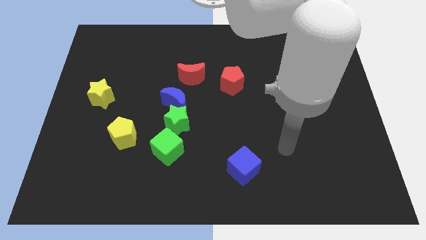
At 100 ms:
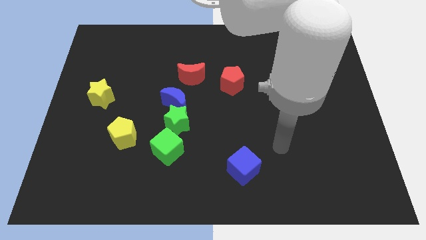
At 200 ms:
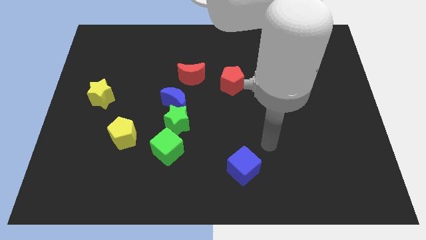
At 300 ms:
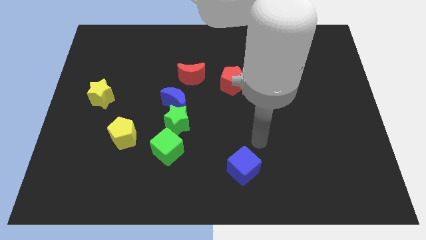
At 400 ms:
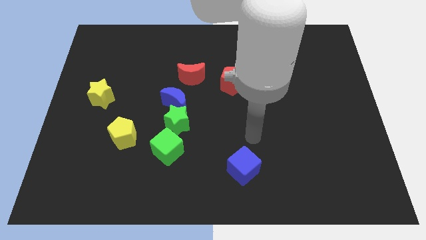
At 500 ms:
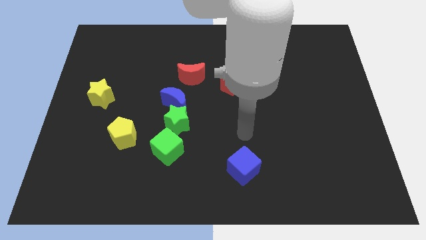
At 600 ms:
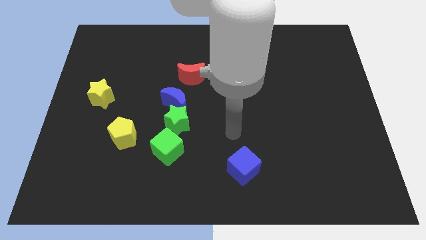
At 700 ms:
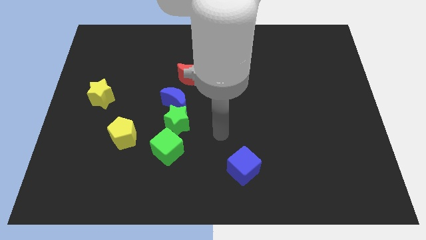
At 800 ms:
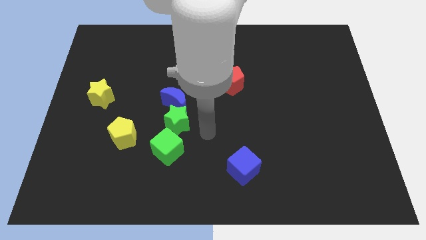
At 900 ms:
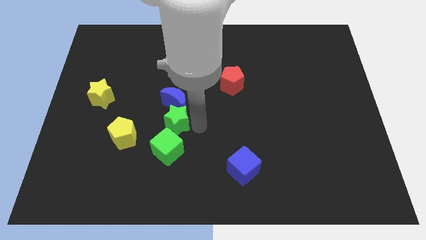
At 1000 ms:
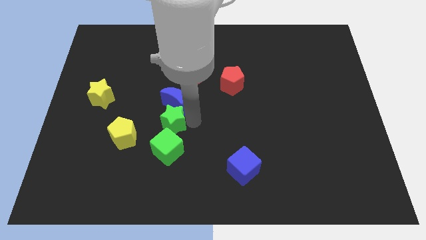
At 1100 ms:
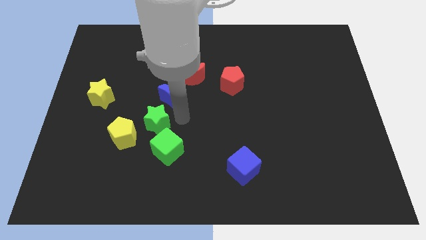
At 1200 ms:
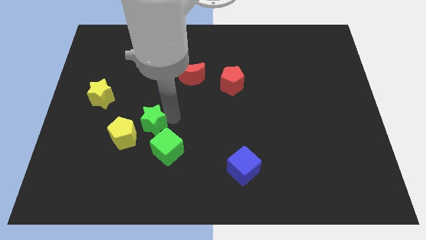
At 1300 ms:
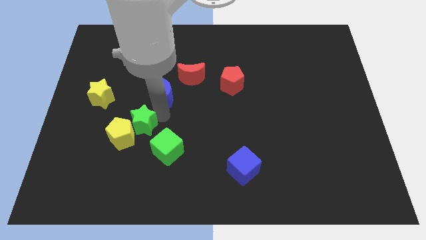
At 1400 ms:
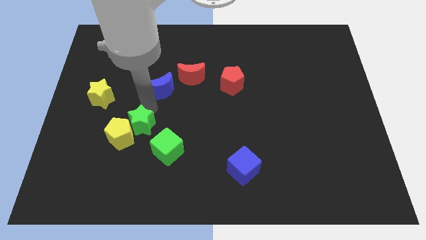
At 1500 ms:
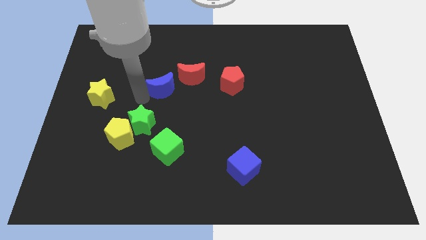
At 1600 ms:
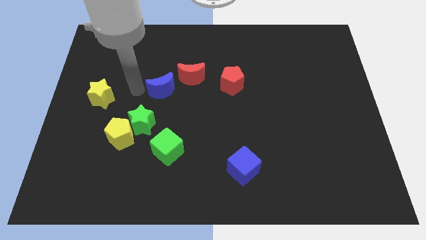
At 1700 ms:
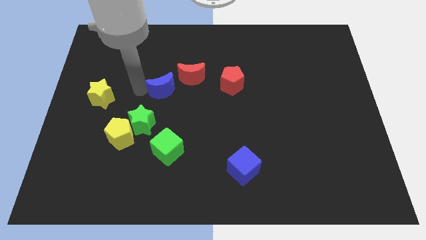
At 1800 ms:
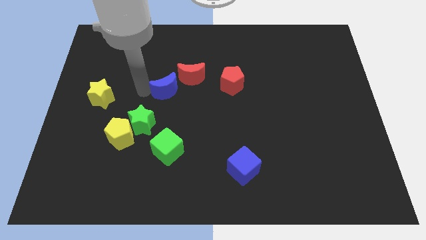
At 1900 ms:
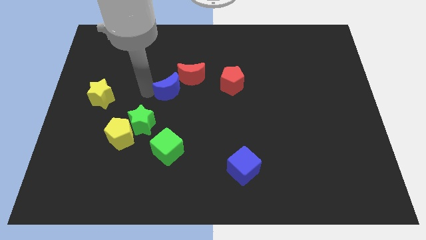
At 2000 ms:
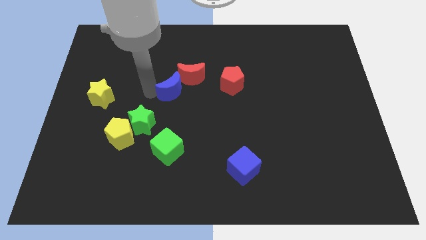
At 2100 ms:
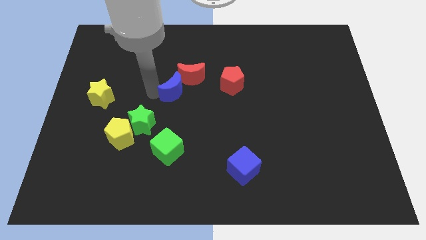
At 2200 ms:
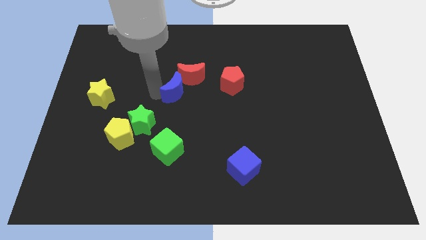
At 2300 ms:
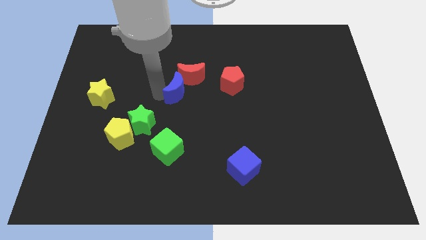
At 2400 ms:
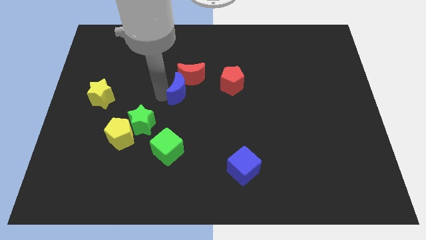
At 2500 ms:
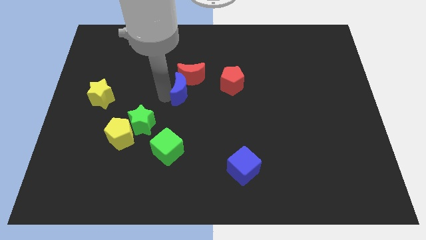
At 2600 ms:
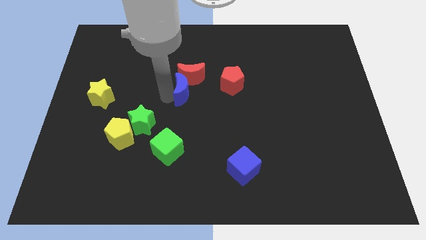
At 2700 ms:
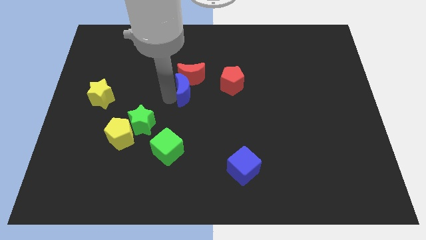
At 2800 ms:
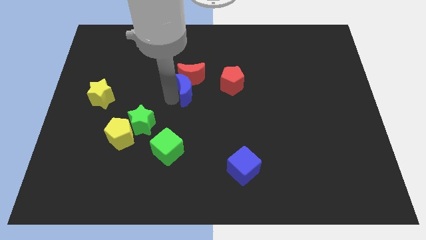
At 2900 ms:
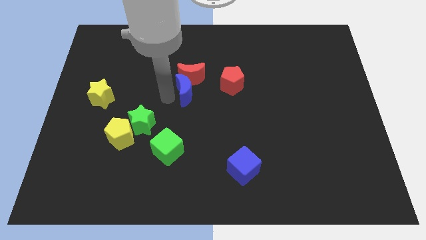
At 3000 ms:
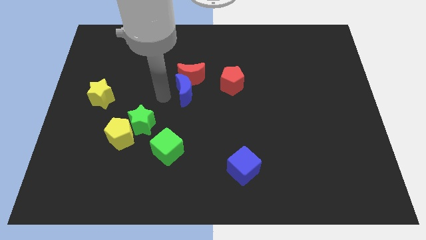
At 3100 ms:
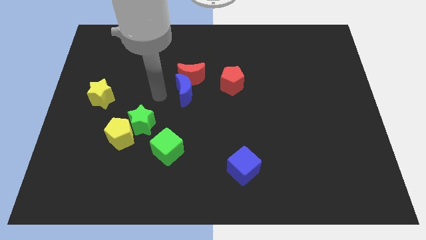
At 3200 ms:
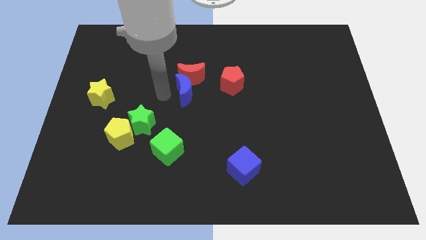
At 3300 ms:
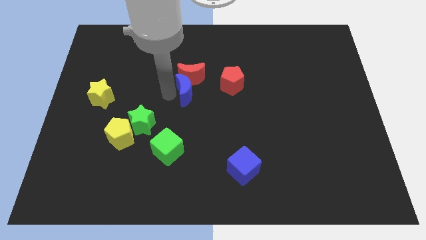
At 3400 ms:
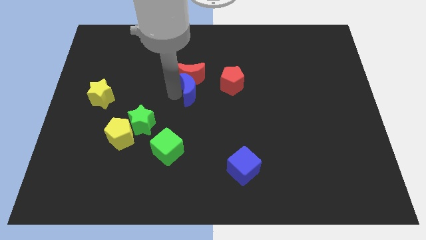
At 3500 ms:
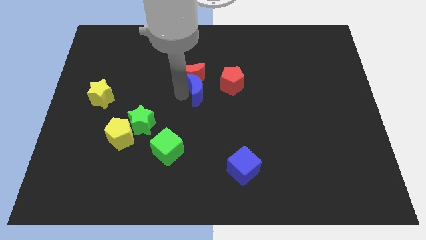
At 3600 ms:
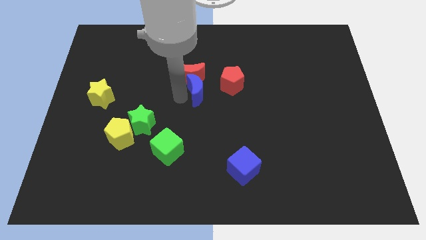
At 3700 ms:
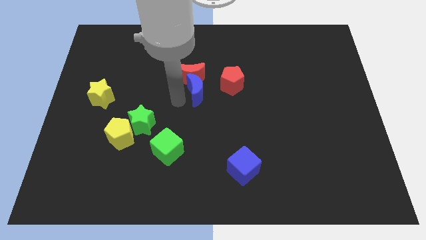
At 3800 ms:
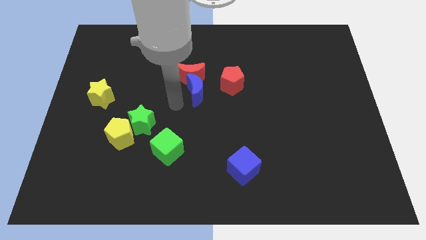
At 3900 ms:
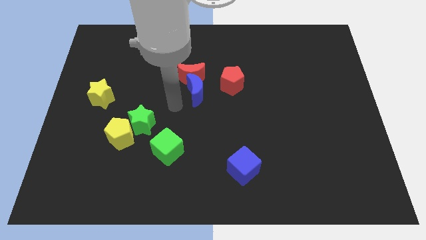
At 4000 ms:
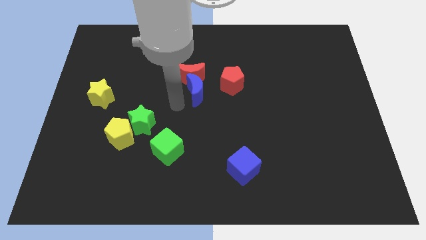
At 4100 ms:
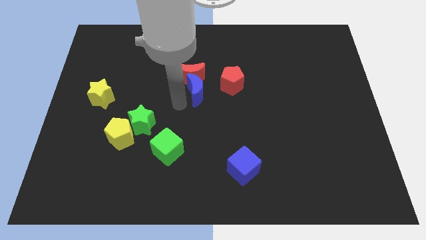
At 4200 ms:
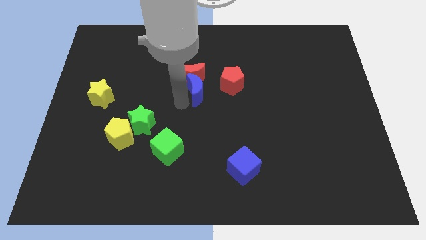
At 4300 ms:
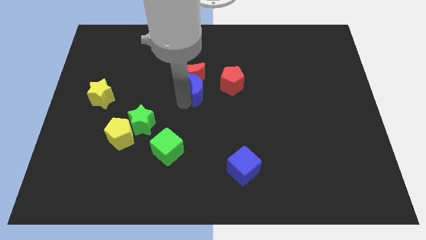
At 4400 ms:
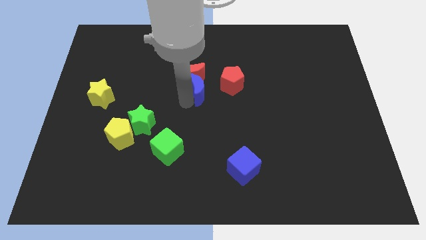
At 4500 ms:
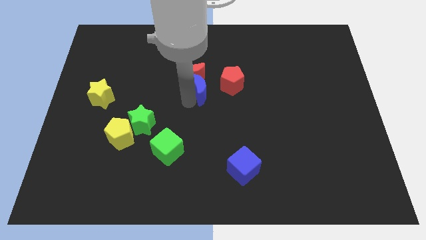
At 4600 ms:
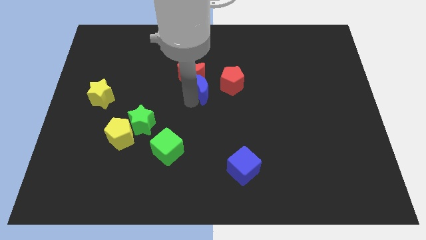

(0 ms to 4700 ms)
slightly push the blue moon up and then to the right

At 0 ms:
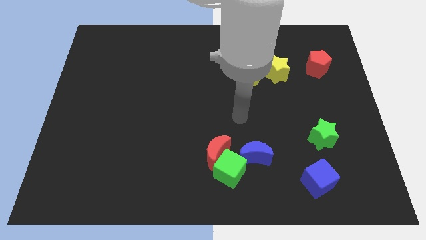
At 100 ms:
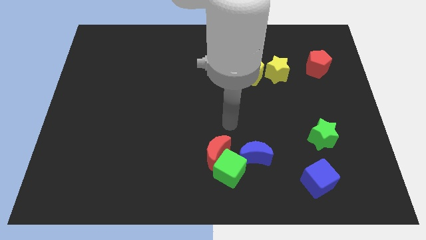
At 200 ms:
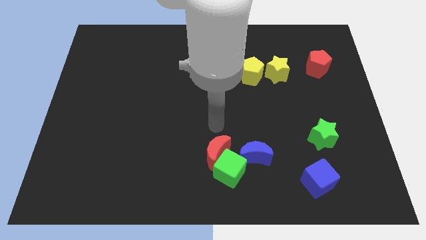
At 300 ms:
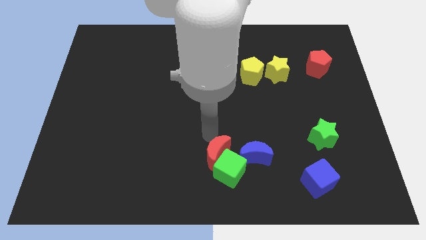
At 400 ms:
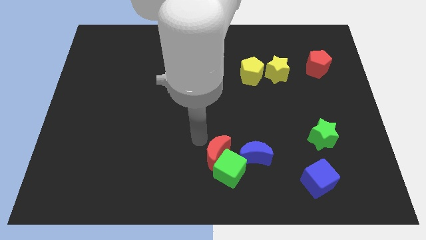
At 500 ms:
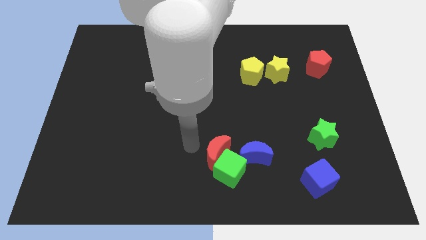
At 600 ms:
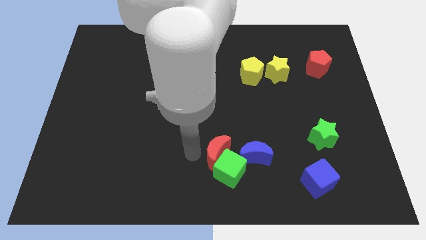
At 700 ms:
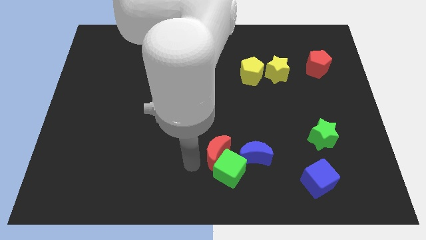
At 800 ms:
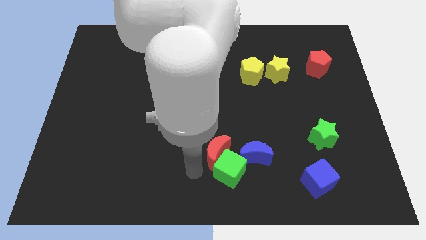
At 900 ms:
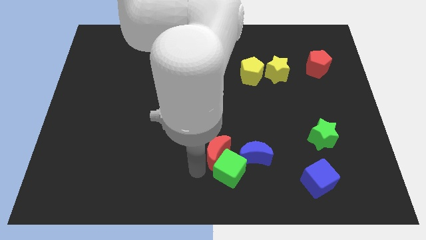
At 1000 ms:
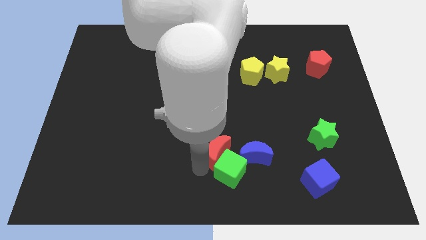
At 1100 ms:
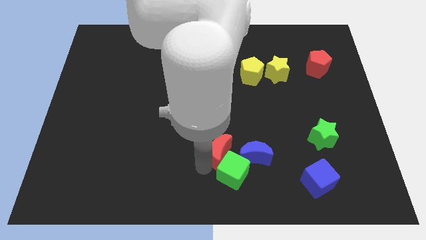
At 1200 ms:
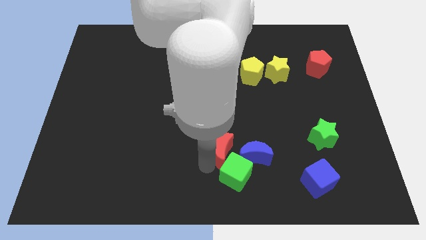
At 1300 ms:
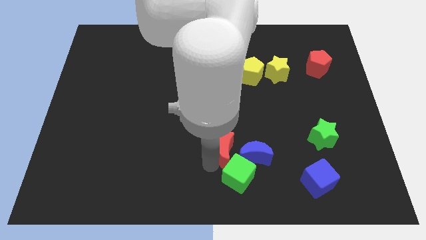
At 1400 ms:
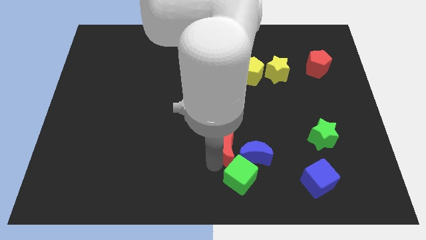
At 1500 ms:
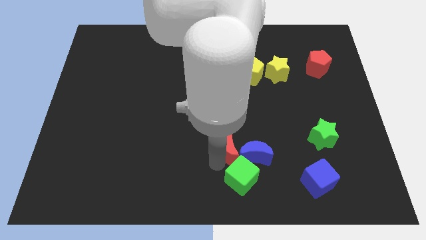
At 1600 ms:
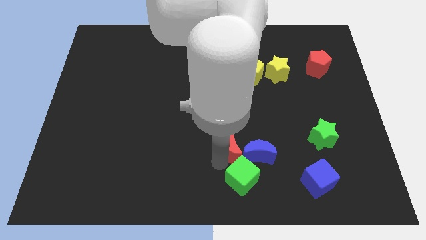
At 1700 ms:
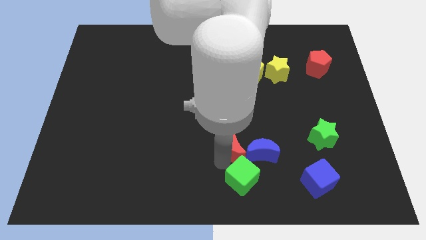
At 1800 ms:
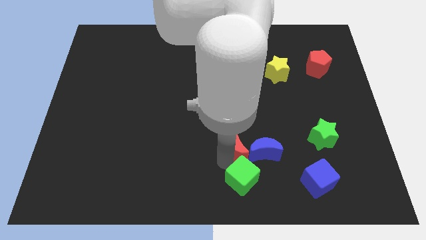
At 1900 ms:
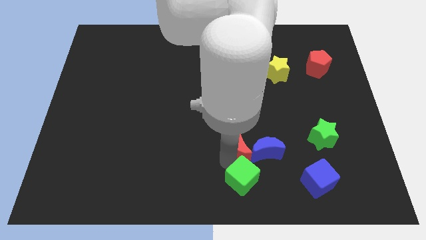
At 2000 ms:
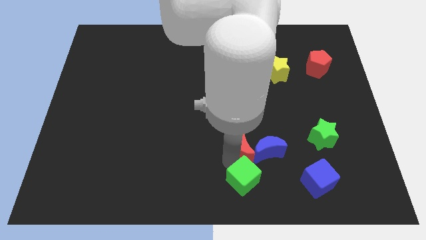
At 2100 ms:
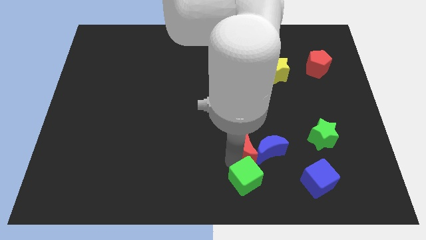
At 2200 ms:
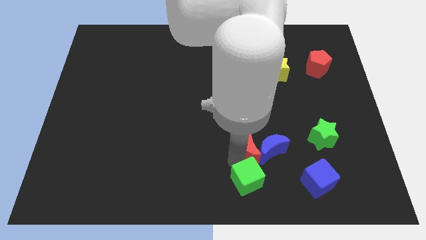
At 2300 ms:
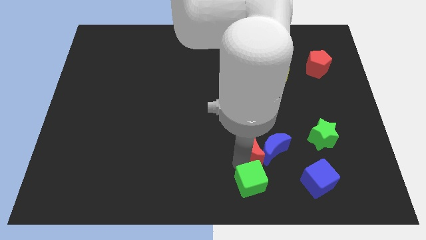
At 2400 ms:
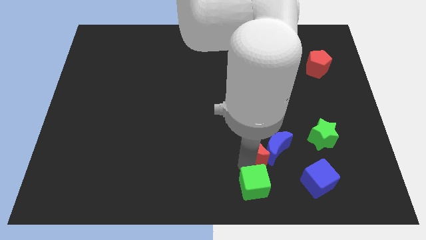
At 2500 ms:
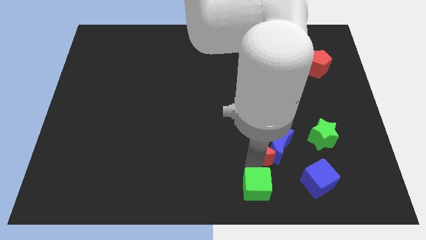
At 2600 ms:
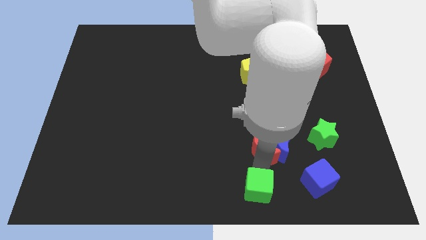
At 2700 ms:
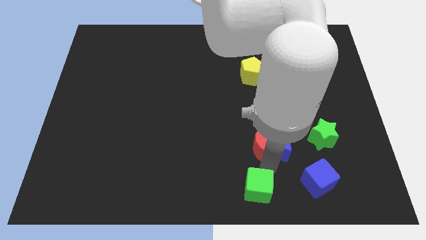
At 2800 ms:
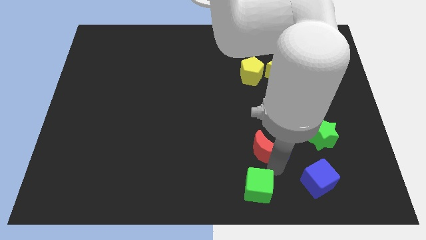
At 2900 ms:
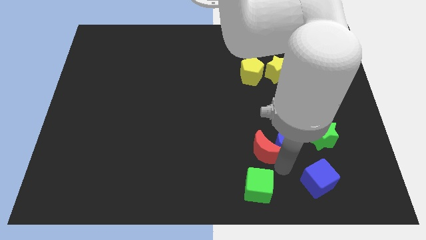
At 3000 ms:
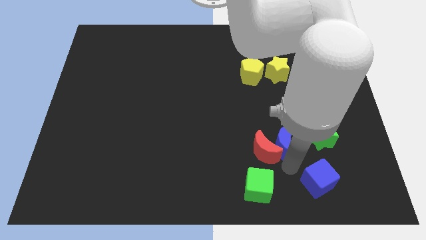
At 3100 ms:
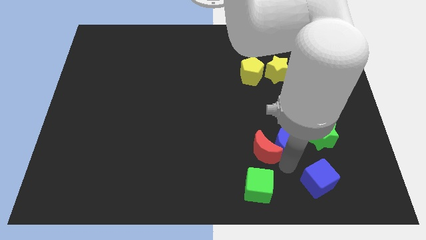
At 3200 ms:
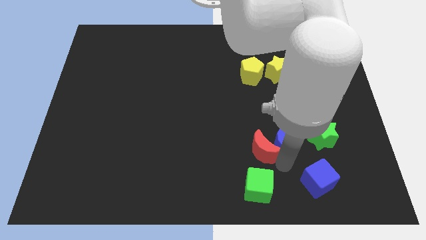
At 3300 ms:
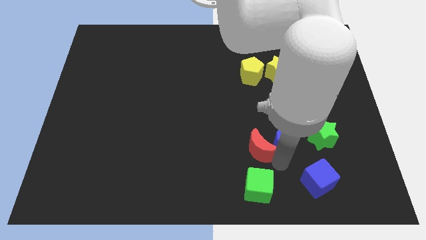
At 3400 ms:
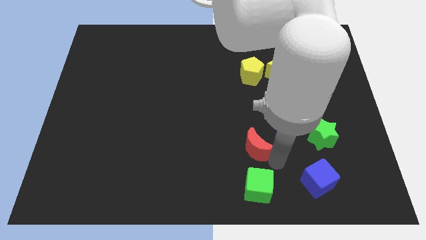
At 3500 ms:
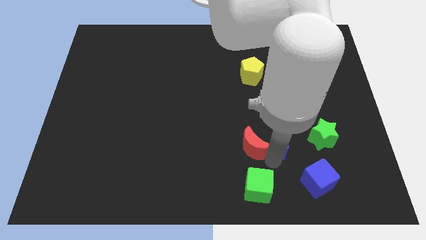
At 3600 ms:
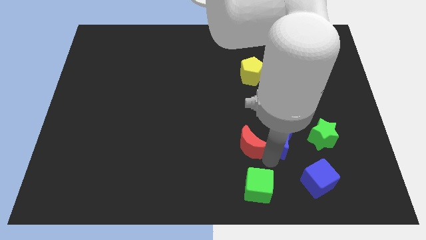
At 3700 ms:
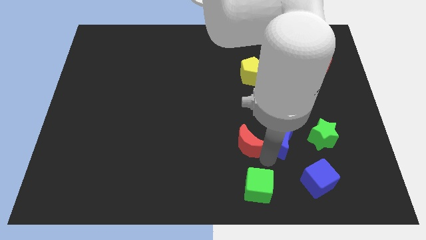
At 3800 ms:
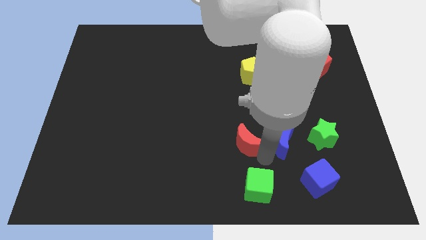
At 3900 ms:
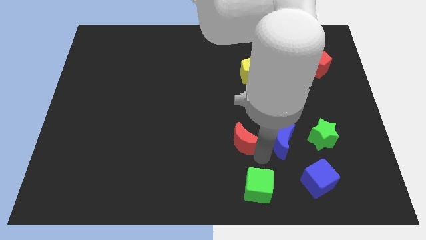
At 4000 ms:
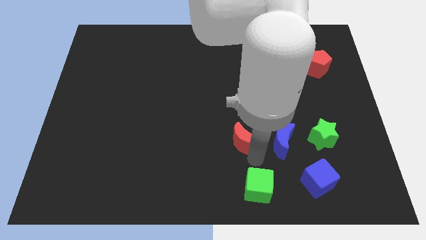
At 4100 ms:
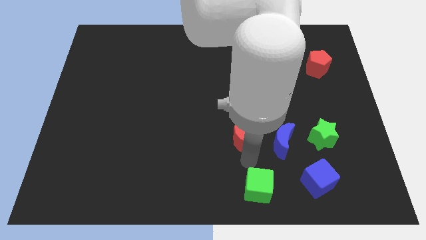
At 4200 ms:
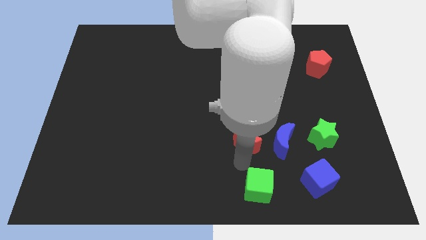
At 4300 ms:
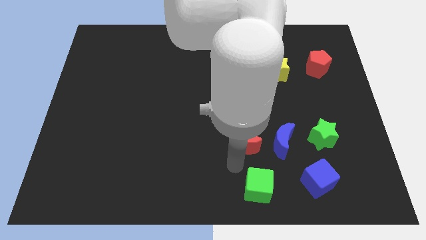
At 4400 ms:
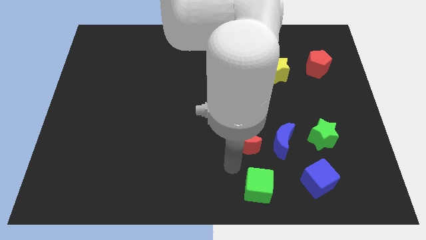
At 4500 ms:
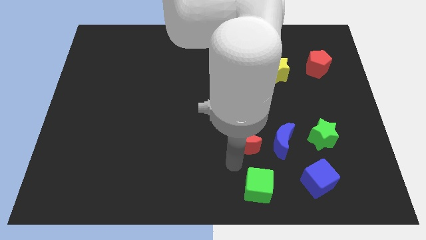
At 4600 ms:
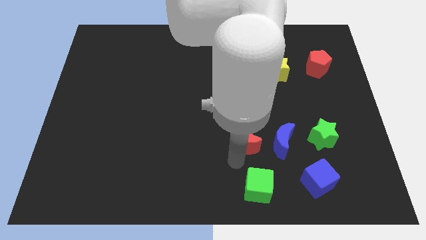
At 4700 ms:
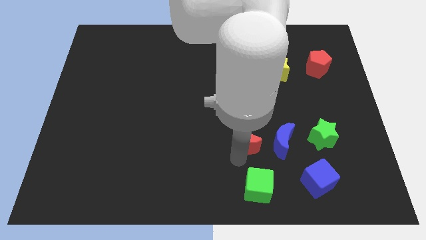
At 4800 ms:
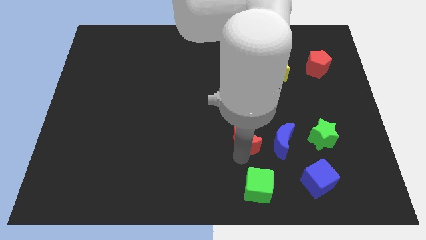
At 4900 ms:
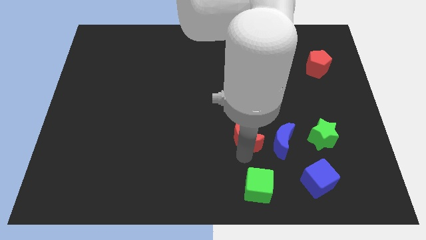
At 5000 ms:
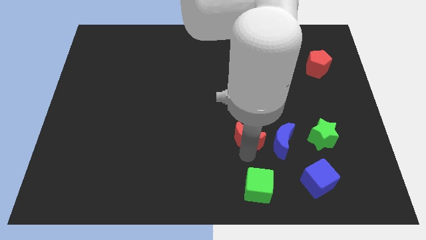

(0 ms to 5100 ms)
push the red moon a little bit up and right
